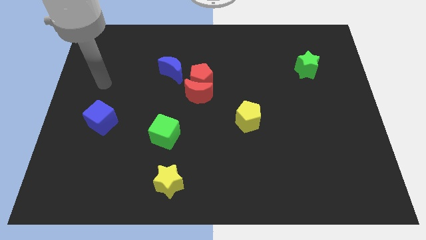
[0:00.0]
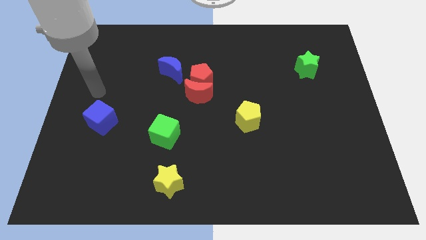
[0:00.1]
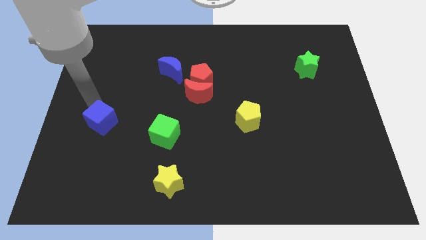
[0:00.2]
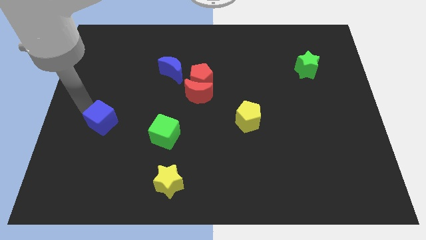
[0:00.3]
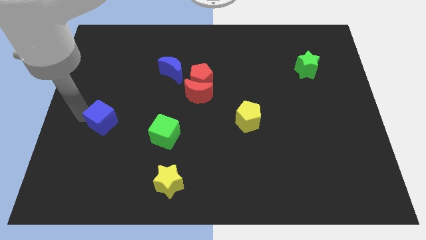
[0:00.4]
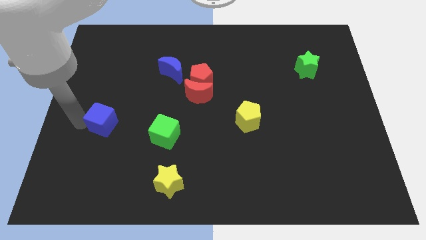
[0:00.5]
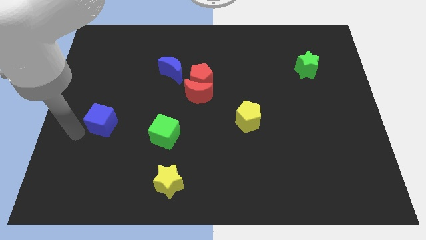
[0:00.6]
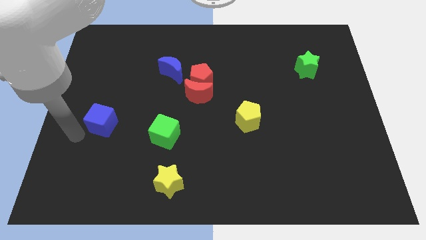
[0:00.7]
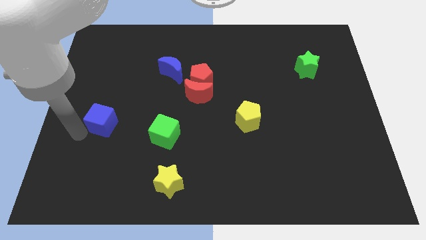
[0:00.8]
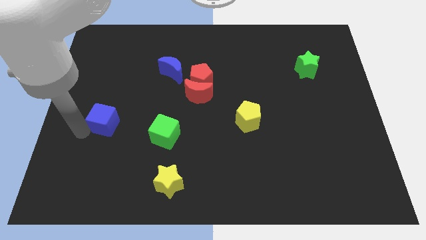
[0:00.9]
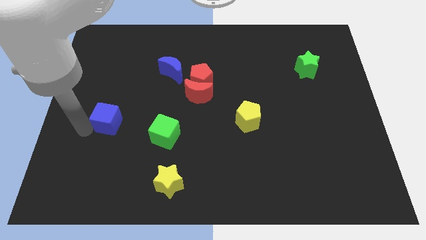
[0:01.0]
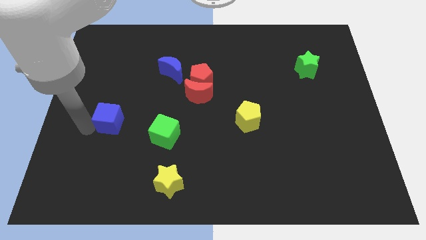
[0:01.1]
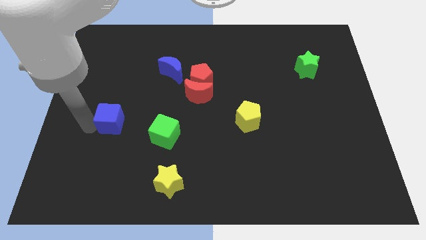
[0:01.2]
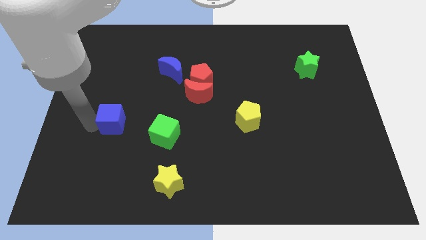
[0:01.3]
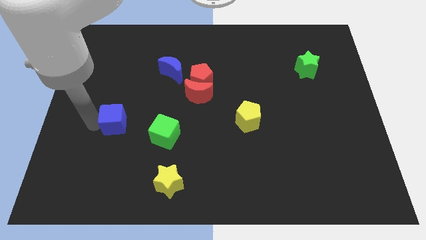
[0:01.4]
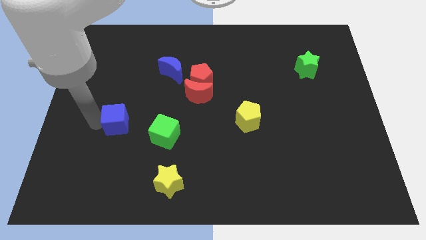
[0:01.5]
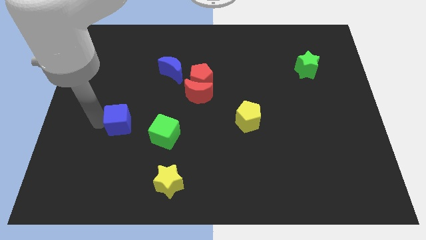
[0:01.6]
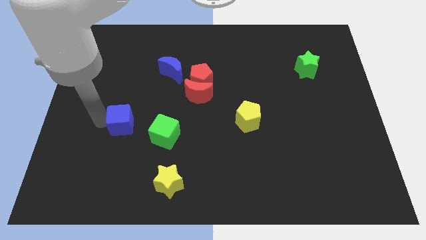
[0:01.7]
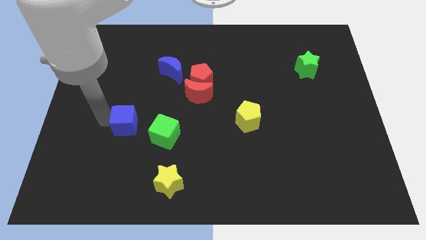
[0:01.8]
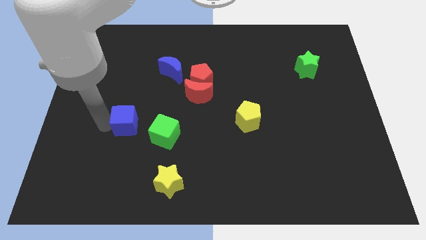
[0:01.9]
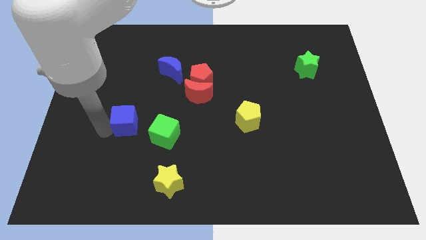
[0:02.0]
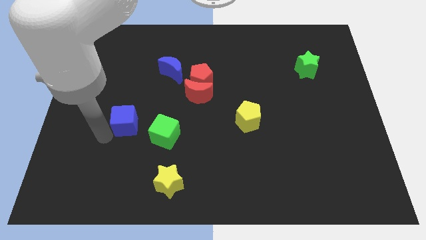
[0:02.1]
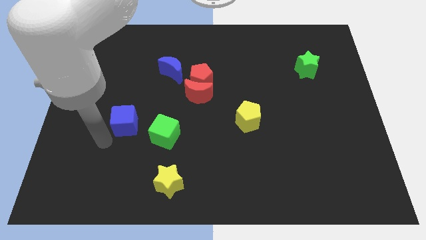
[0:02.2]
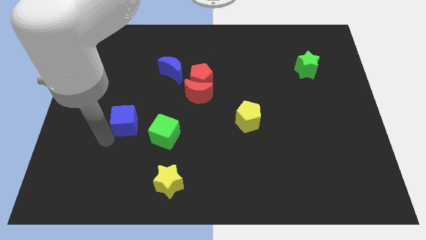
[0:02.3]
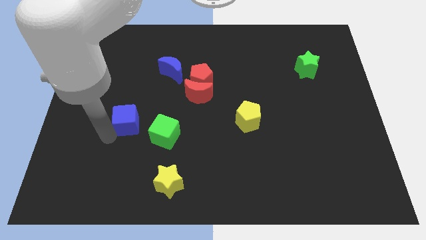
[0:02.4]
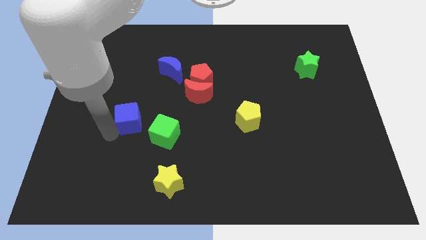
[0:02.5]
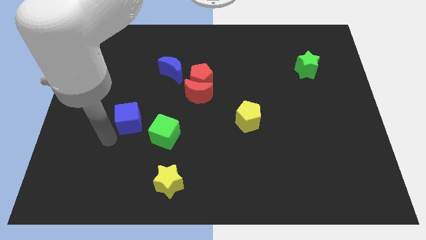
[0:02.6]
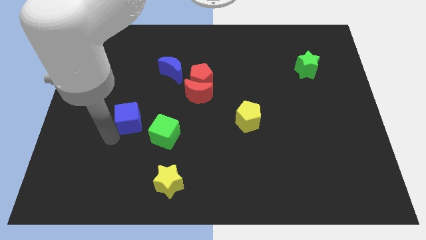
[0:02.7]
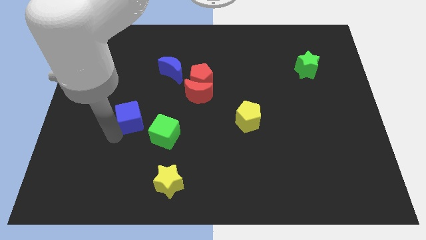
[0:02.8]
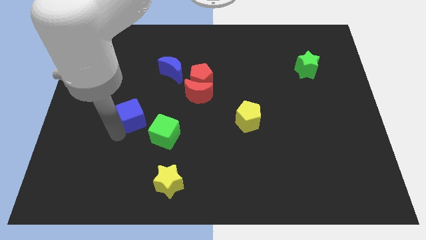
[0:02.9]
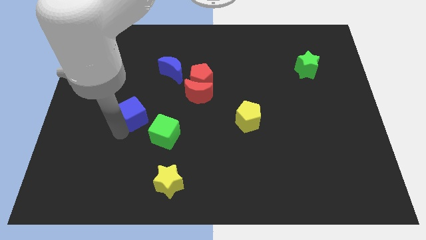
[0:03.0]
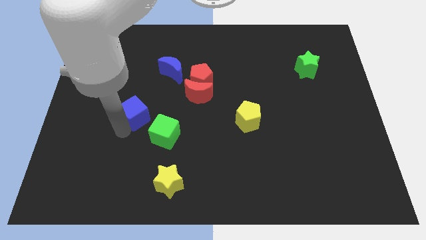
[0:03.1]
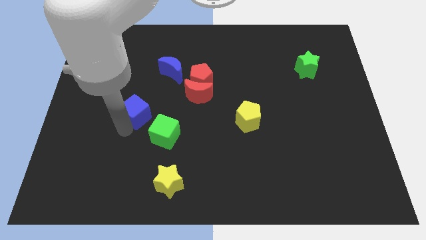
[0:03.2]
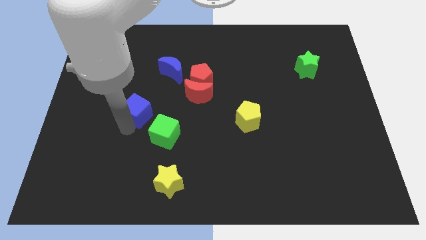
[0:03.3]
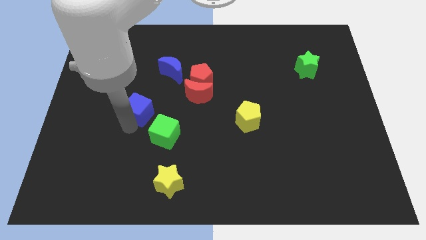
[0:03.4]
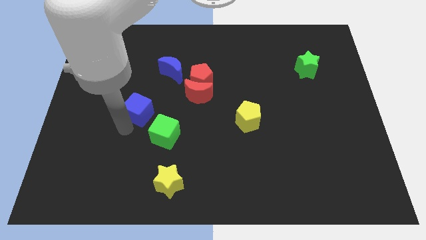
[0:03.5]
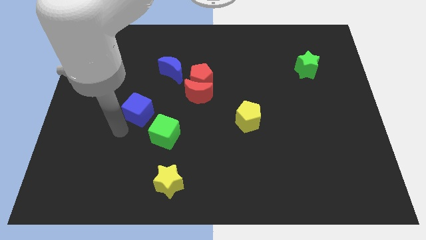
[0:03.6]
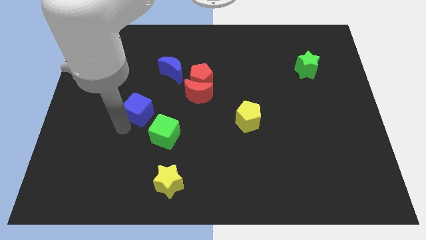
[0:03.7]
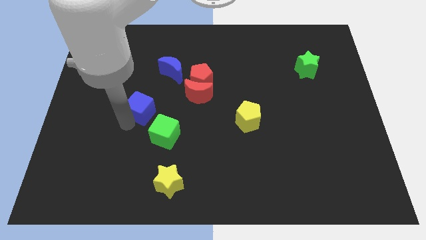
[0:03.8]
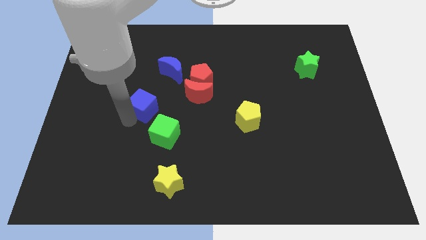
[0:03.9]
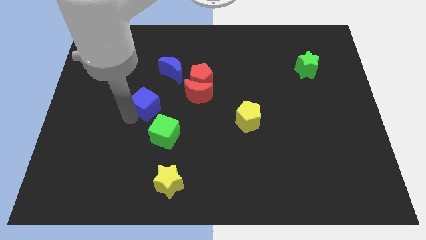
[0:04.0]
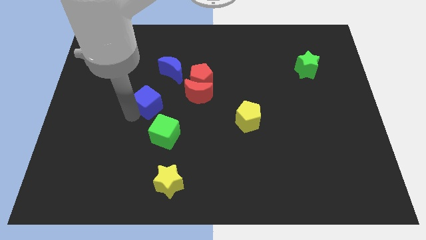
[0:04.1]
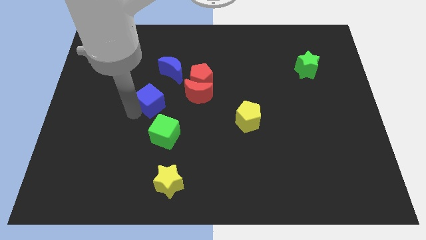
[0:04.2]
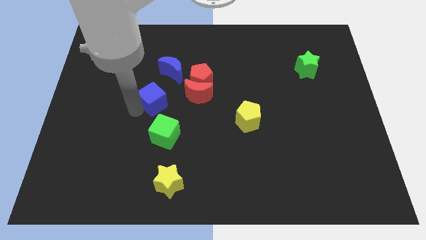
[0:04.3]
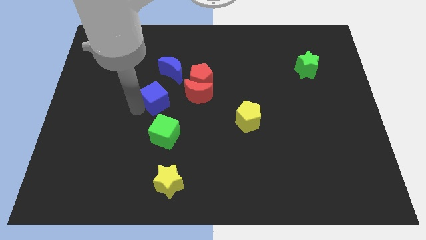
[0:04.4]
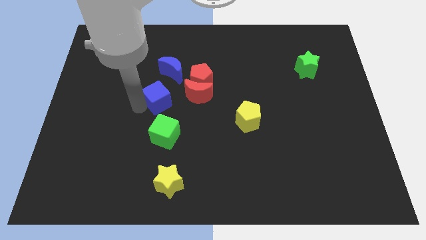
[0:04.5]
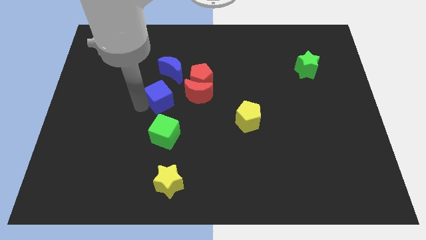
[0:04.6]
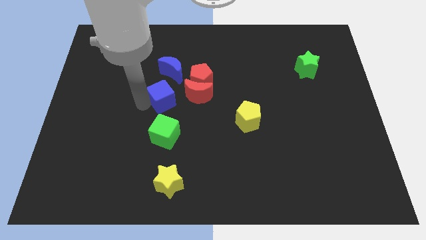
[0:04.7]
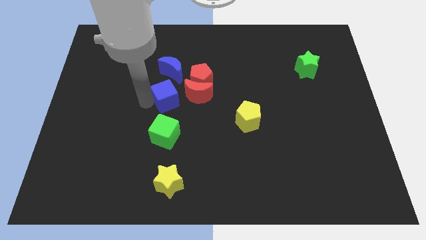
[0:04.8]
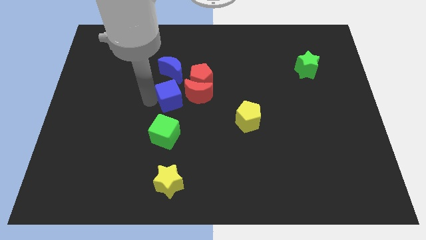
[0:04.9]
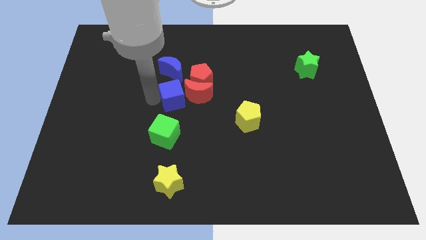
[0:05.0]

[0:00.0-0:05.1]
put the blue cube to the red moon

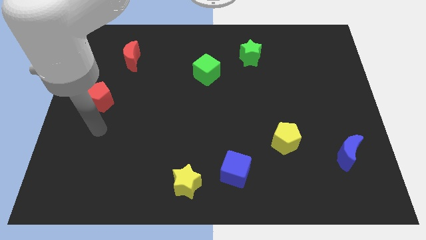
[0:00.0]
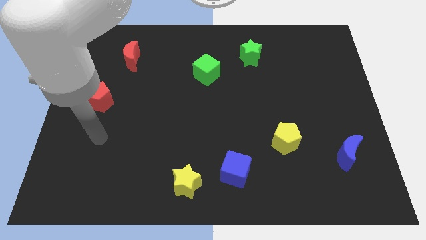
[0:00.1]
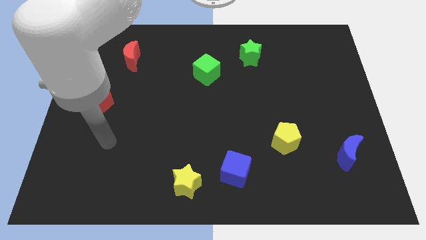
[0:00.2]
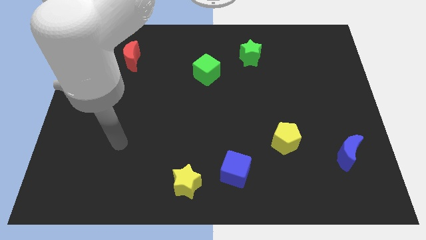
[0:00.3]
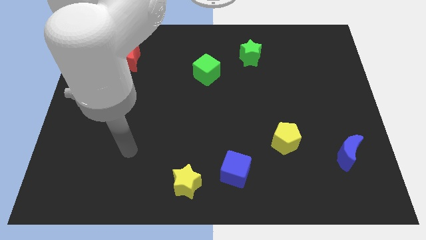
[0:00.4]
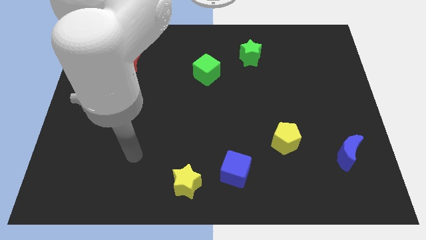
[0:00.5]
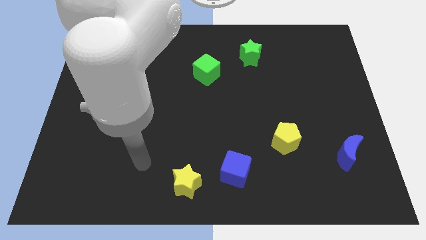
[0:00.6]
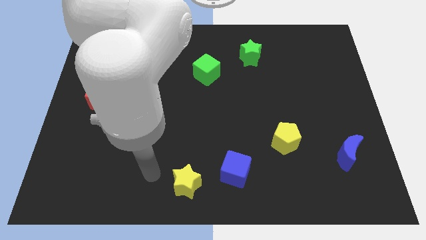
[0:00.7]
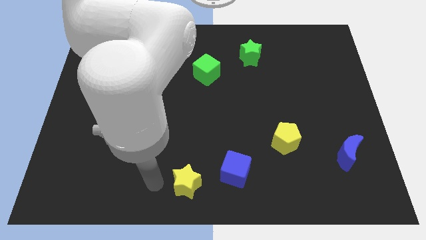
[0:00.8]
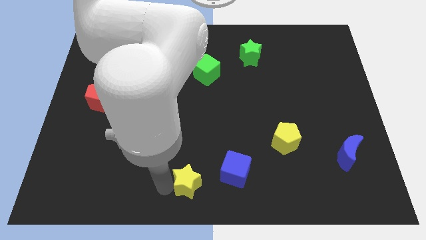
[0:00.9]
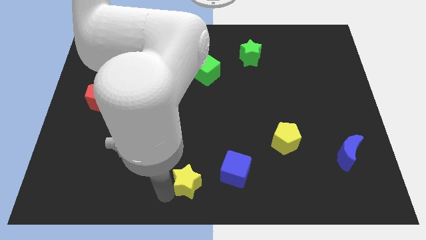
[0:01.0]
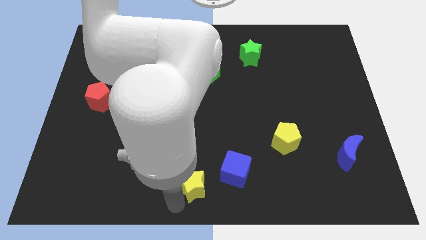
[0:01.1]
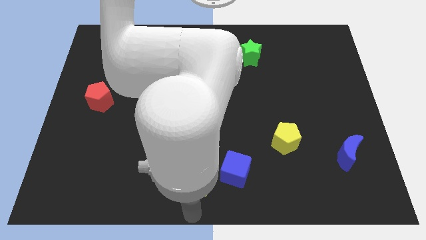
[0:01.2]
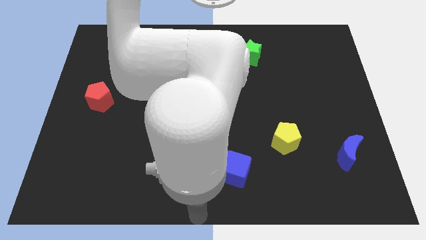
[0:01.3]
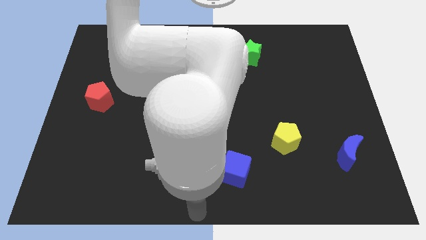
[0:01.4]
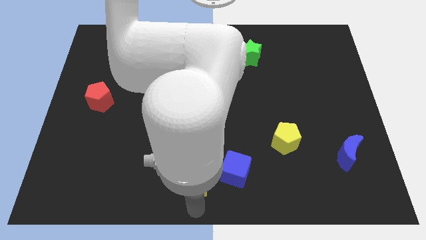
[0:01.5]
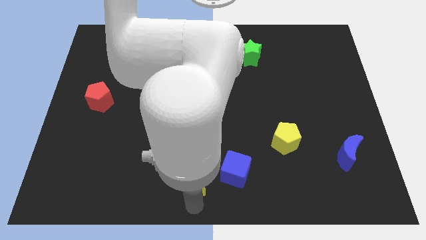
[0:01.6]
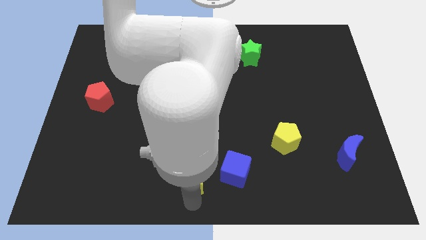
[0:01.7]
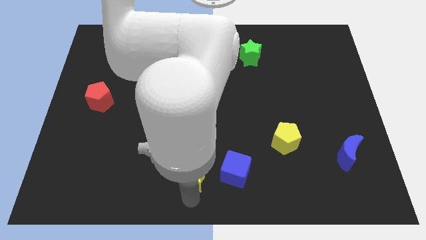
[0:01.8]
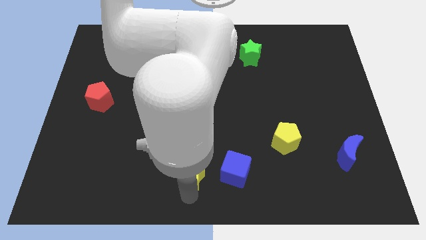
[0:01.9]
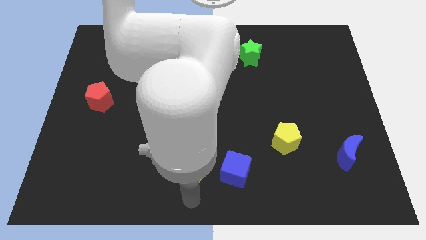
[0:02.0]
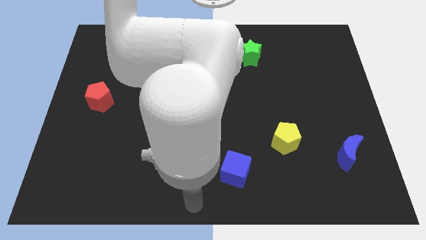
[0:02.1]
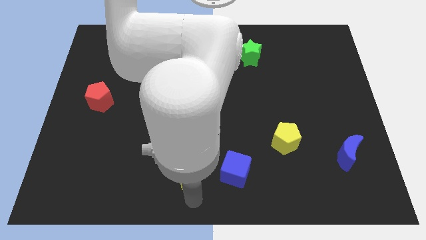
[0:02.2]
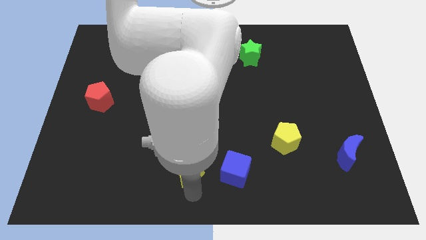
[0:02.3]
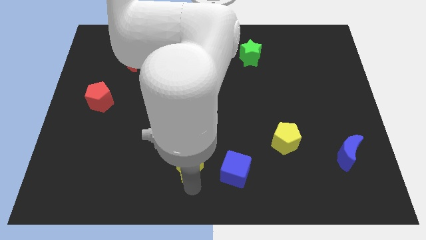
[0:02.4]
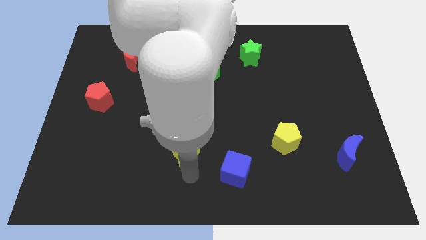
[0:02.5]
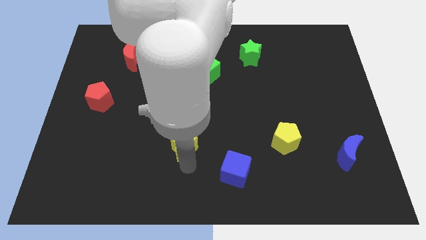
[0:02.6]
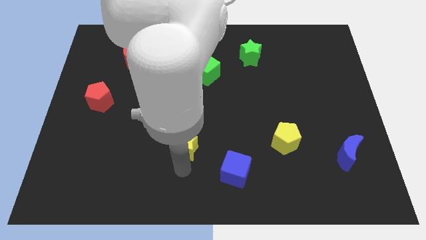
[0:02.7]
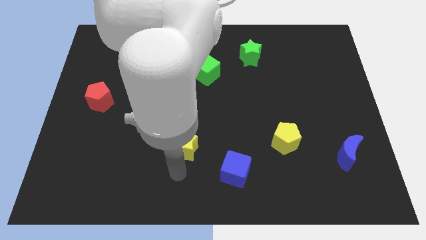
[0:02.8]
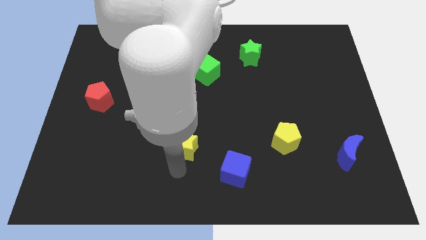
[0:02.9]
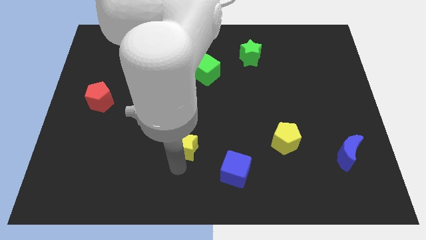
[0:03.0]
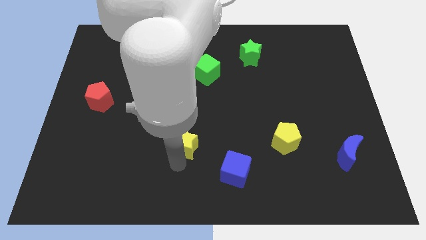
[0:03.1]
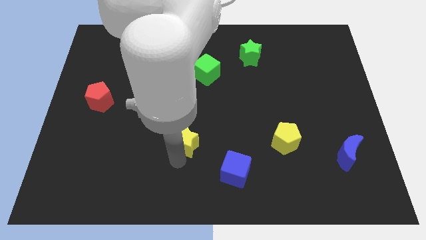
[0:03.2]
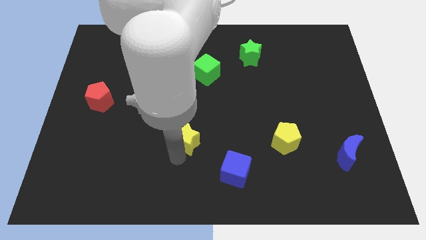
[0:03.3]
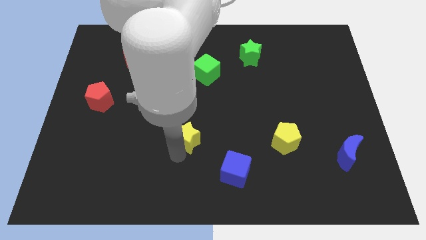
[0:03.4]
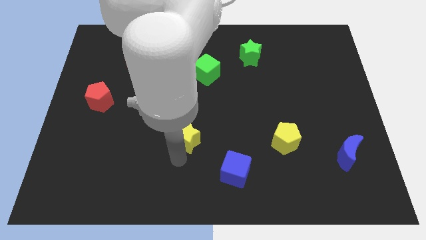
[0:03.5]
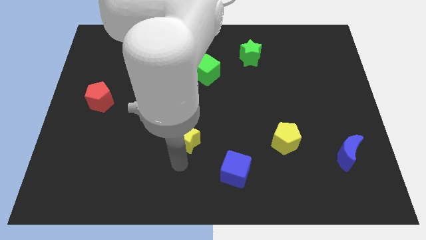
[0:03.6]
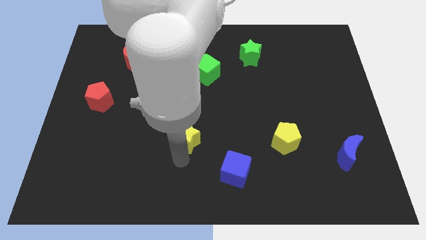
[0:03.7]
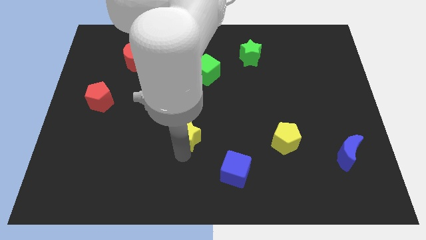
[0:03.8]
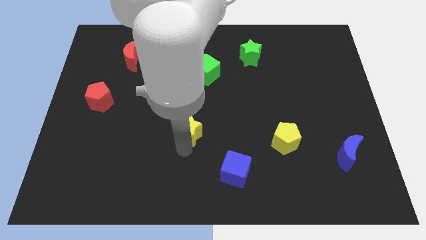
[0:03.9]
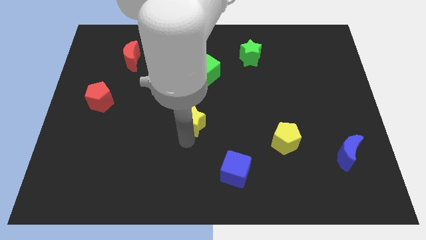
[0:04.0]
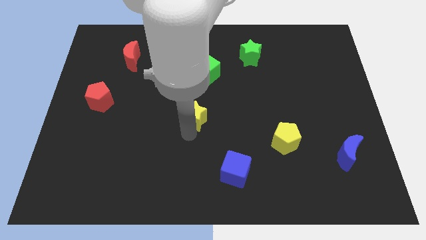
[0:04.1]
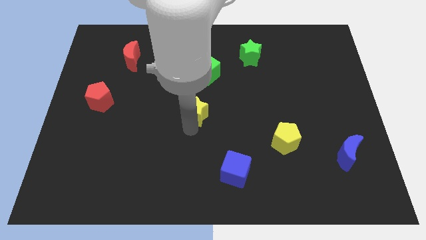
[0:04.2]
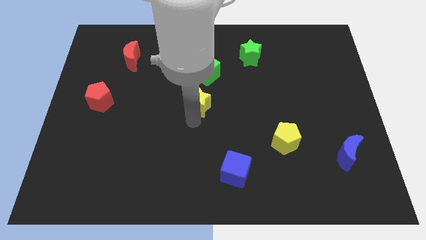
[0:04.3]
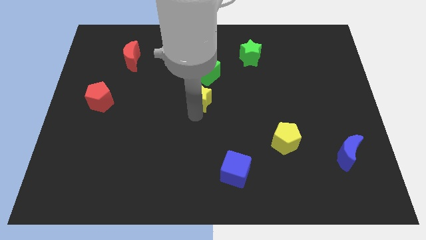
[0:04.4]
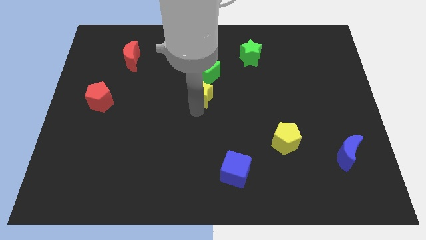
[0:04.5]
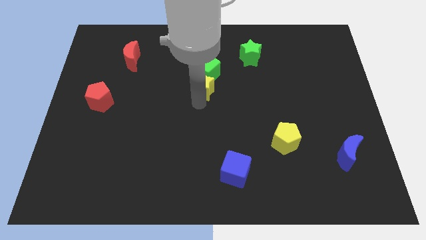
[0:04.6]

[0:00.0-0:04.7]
push the yellow star close to the green cube
